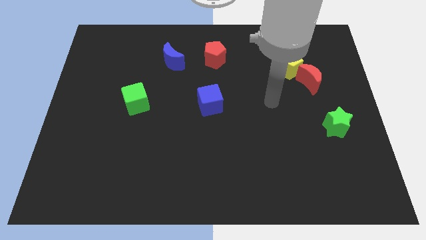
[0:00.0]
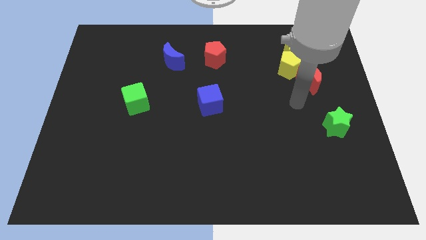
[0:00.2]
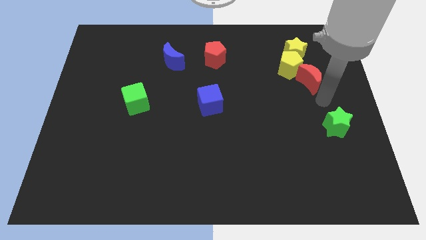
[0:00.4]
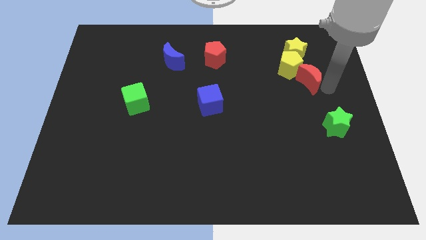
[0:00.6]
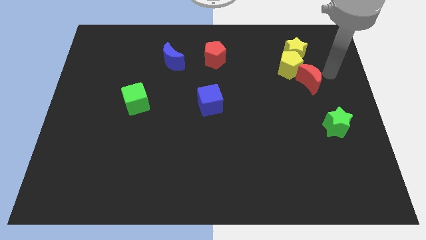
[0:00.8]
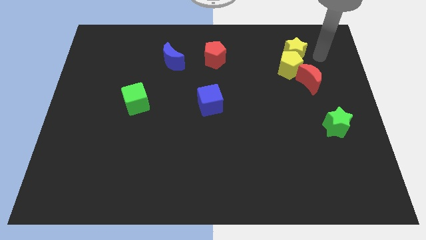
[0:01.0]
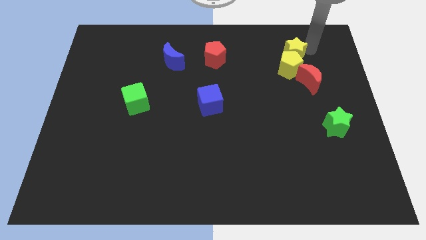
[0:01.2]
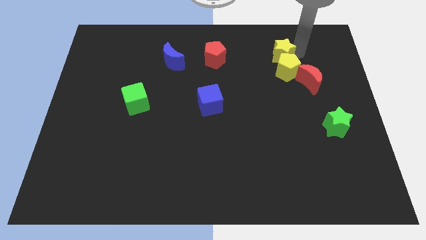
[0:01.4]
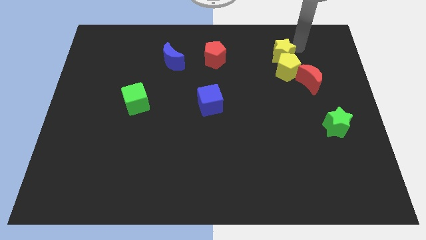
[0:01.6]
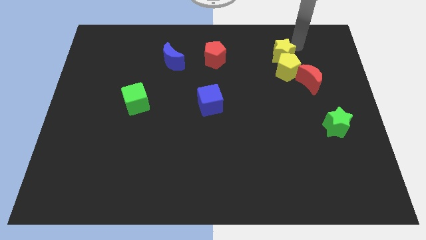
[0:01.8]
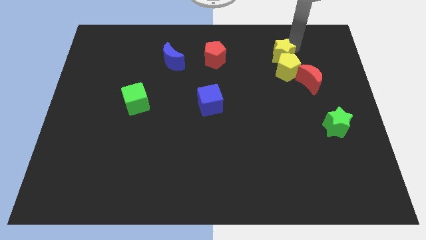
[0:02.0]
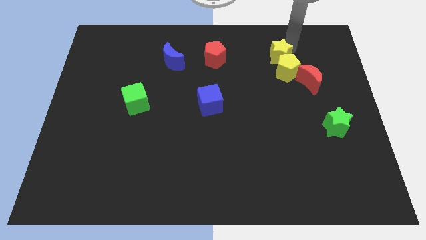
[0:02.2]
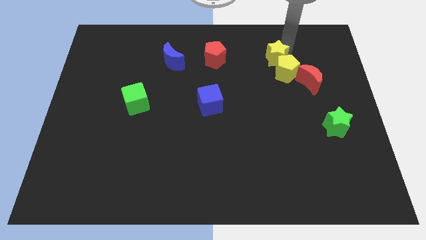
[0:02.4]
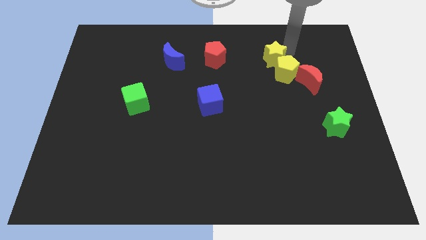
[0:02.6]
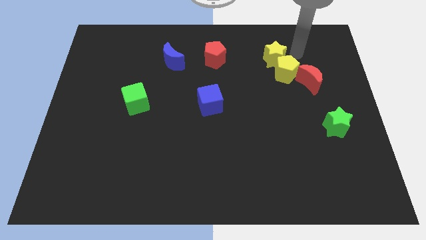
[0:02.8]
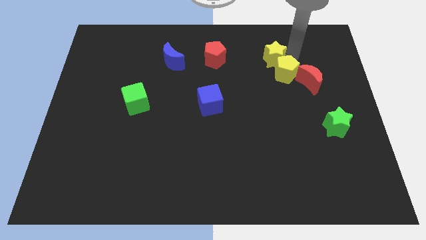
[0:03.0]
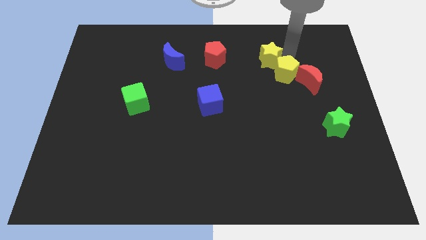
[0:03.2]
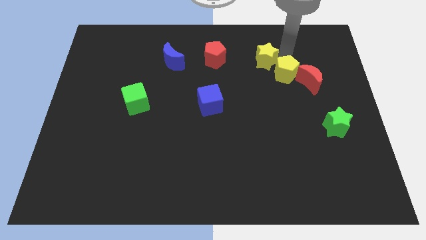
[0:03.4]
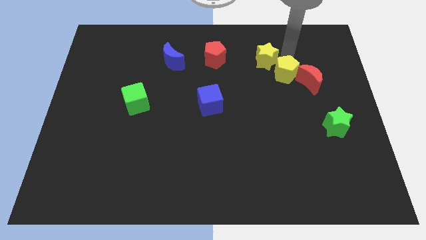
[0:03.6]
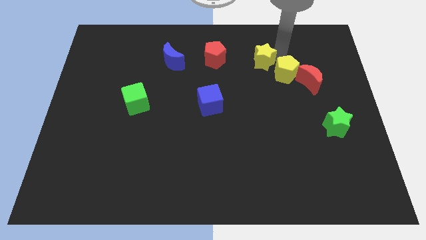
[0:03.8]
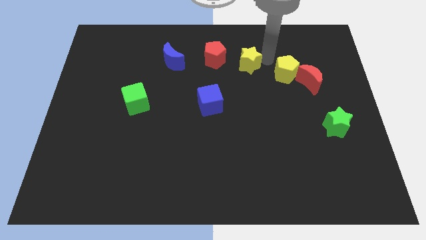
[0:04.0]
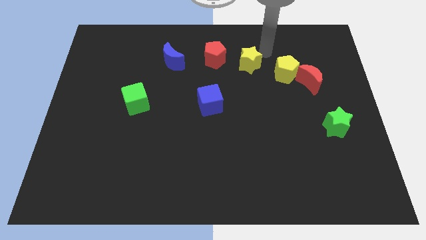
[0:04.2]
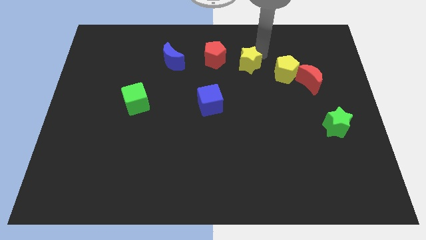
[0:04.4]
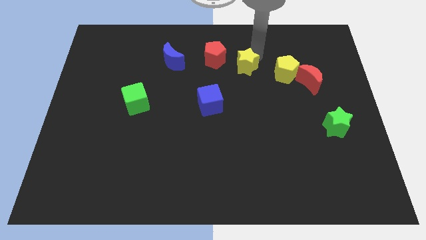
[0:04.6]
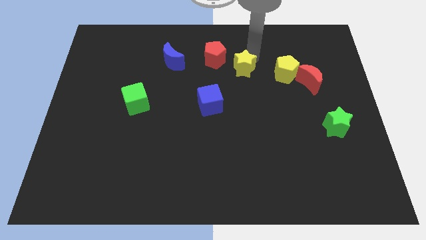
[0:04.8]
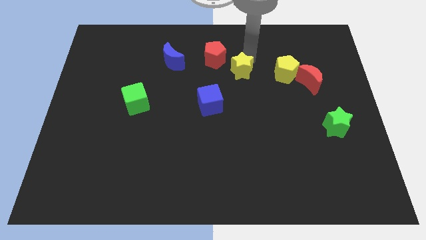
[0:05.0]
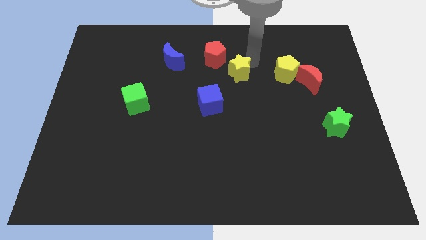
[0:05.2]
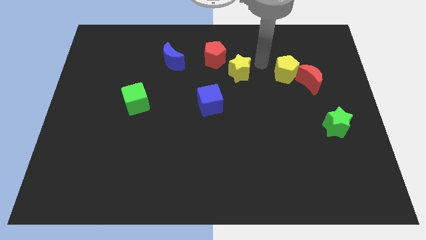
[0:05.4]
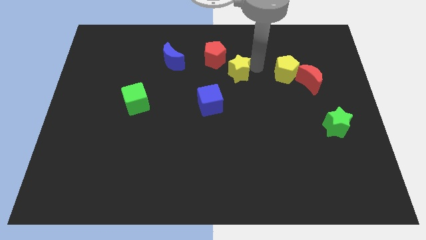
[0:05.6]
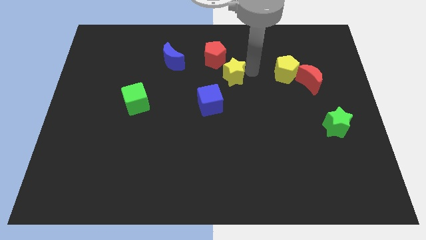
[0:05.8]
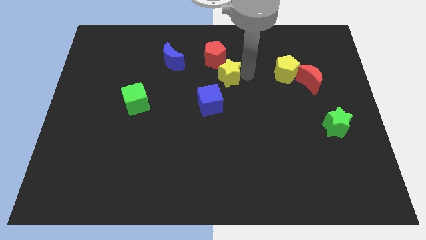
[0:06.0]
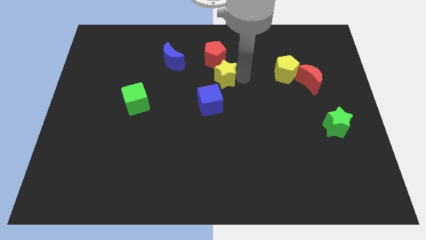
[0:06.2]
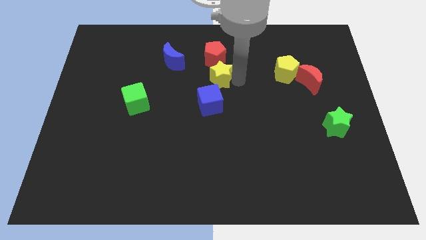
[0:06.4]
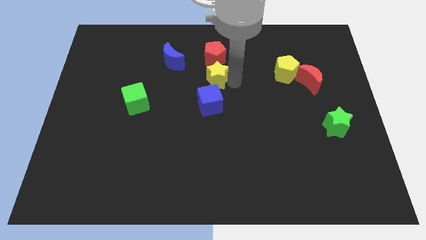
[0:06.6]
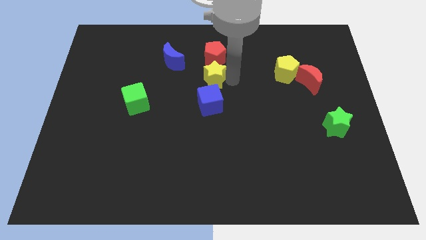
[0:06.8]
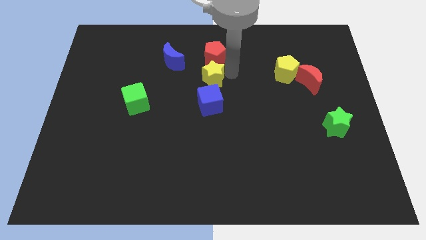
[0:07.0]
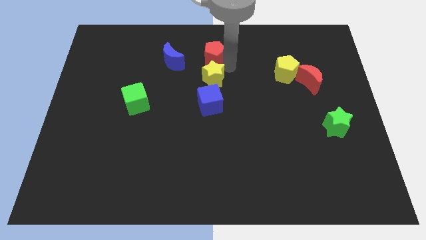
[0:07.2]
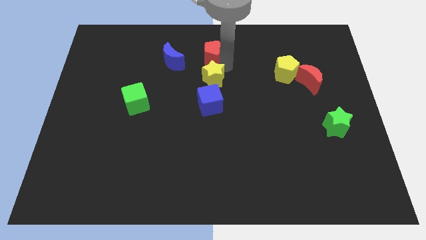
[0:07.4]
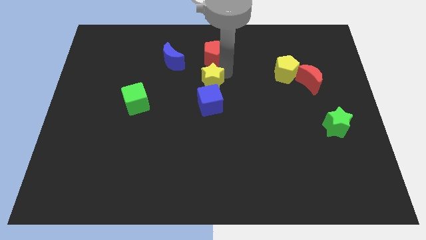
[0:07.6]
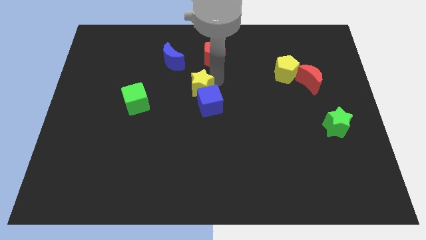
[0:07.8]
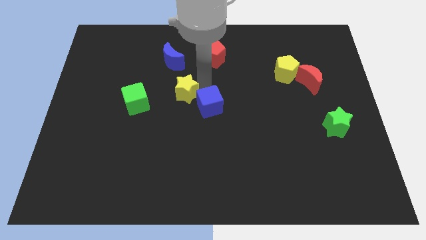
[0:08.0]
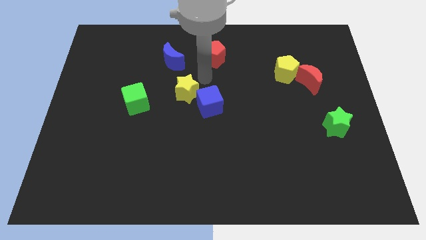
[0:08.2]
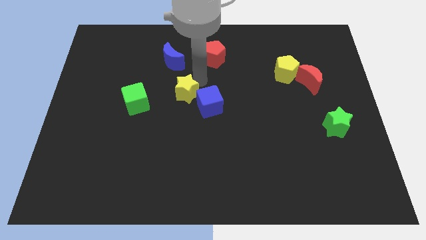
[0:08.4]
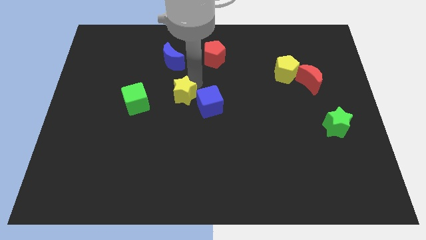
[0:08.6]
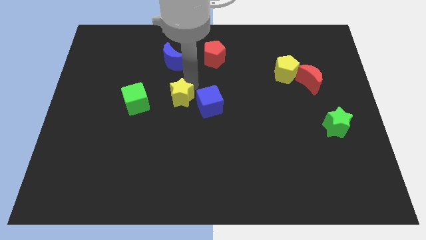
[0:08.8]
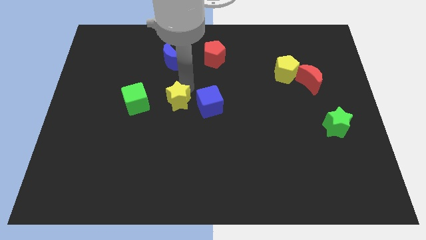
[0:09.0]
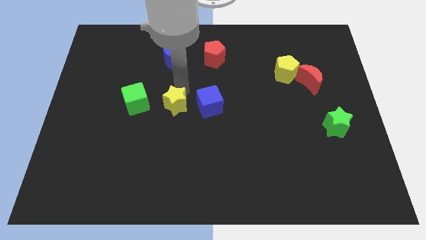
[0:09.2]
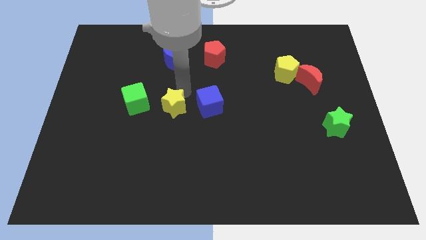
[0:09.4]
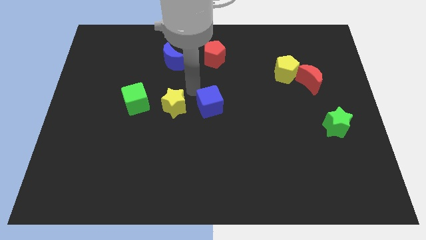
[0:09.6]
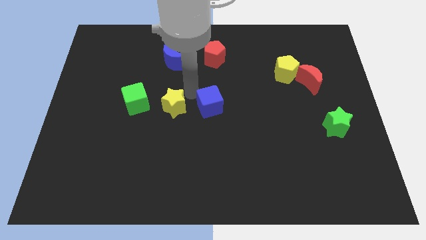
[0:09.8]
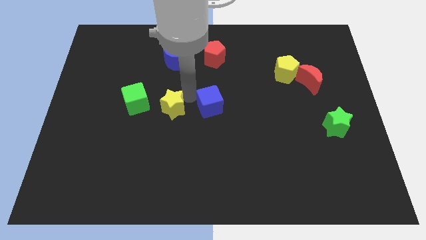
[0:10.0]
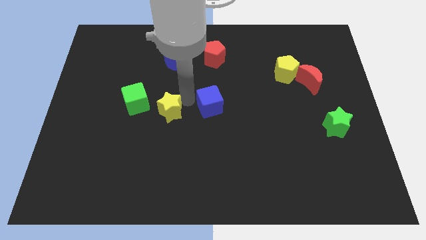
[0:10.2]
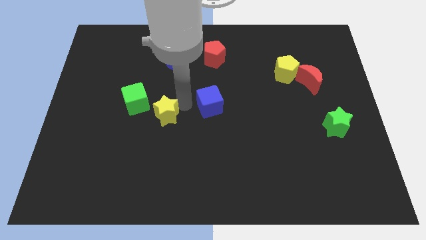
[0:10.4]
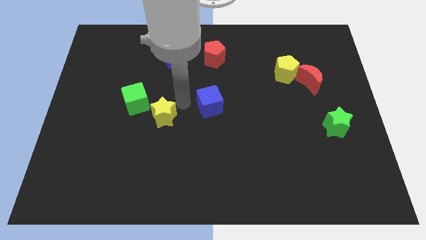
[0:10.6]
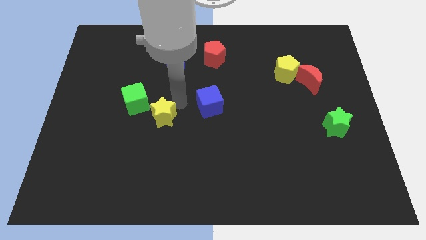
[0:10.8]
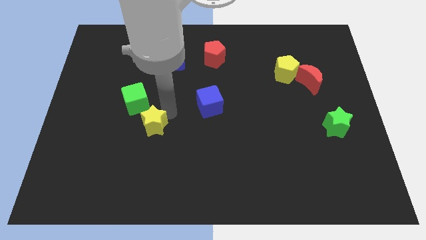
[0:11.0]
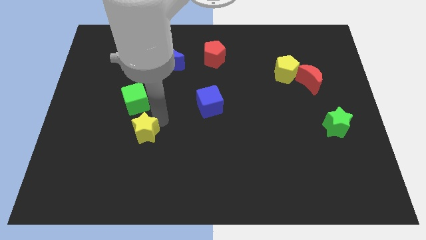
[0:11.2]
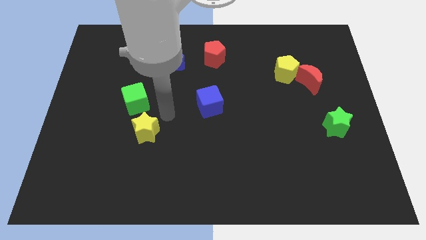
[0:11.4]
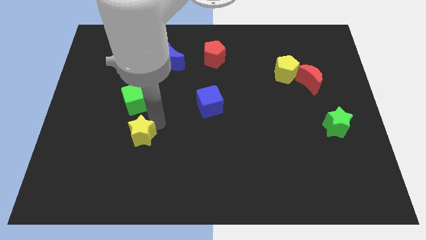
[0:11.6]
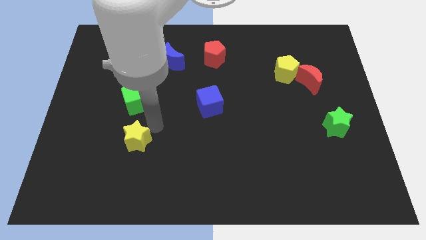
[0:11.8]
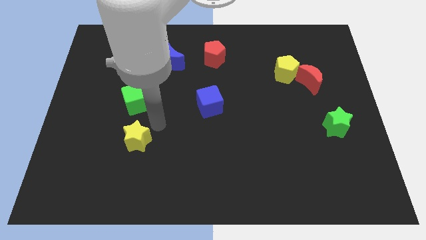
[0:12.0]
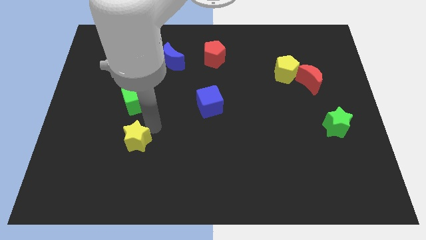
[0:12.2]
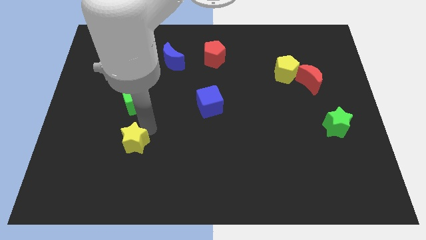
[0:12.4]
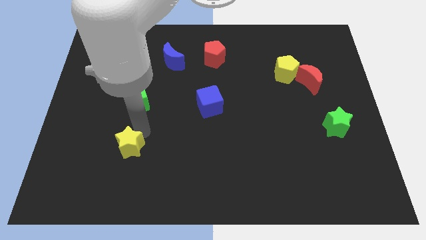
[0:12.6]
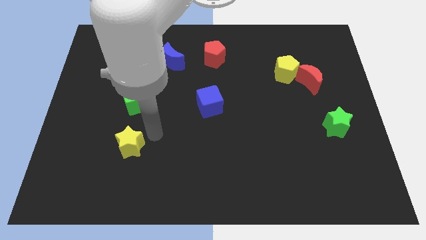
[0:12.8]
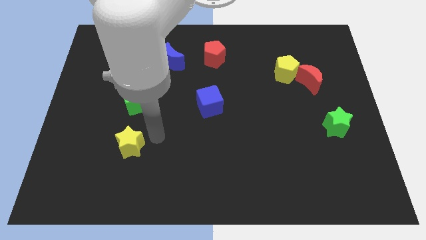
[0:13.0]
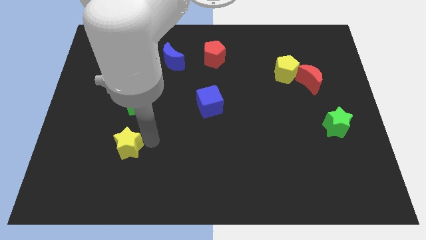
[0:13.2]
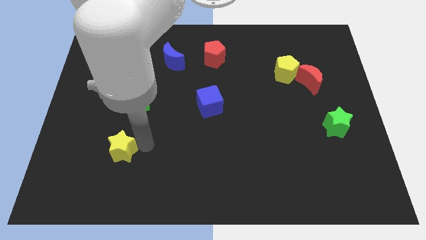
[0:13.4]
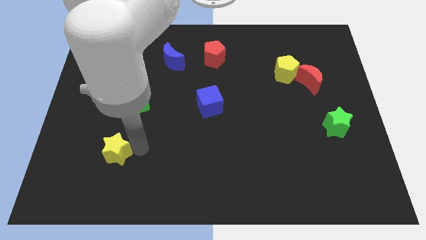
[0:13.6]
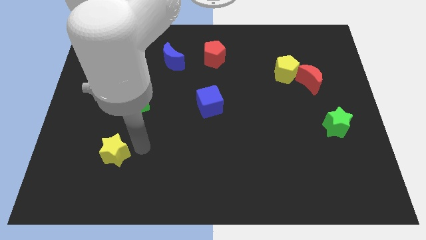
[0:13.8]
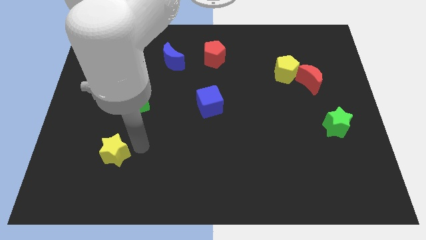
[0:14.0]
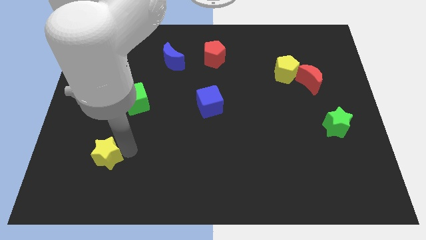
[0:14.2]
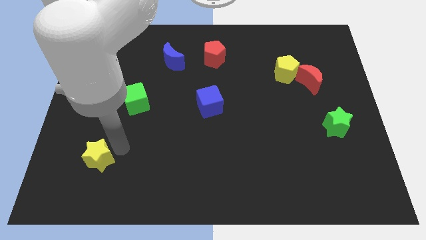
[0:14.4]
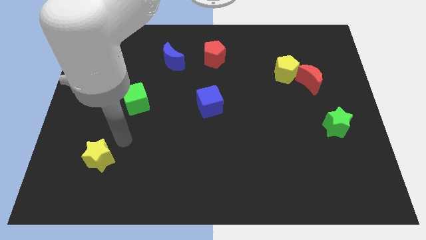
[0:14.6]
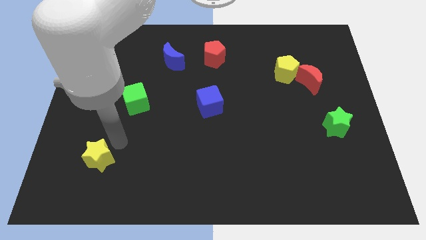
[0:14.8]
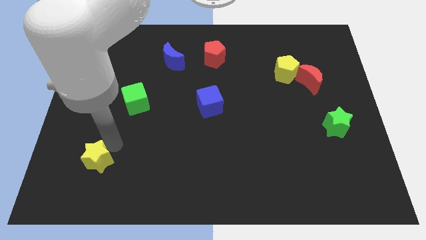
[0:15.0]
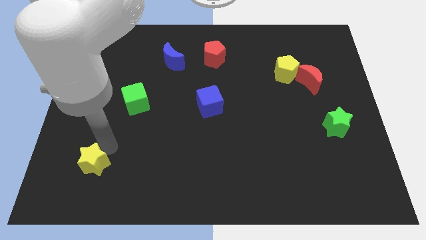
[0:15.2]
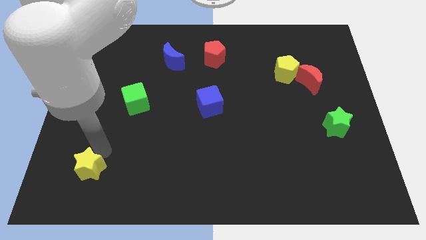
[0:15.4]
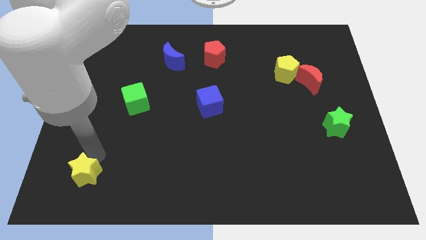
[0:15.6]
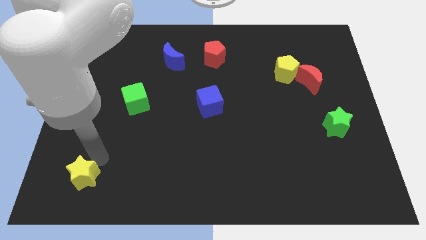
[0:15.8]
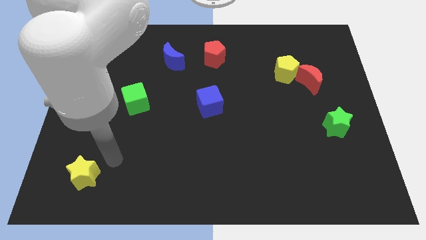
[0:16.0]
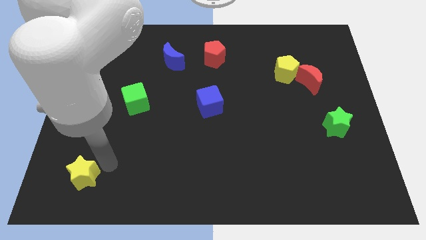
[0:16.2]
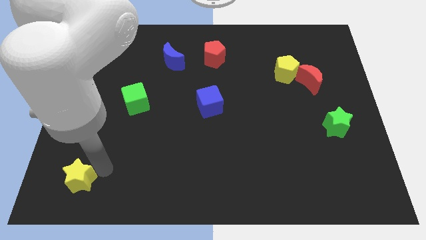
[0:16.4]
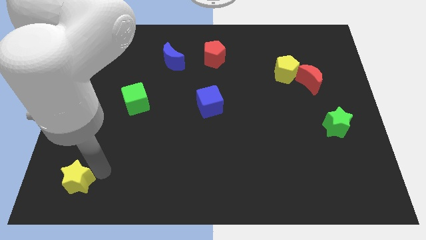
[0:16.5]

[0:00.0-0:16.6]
move the yellow star to the lower left corner
